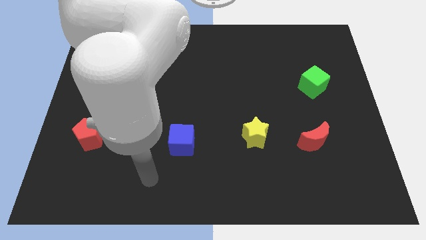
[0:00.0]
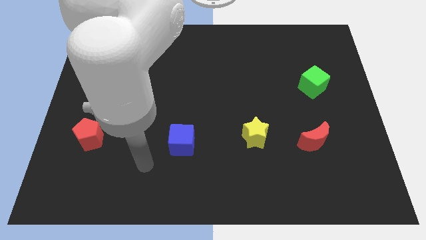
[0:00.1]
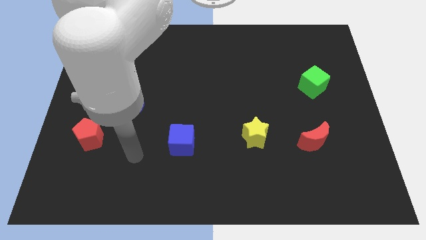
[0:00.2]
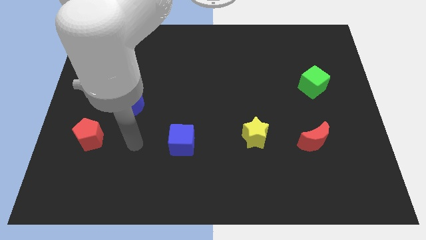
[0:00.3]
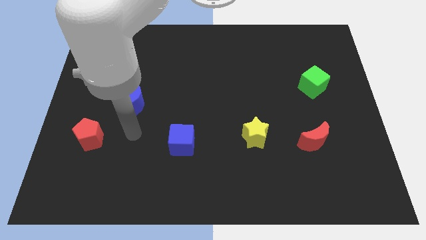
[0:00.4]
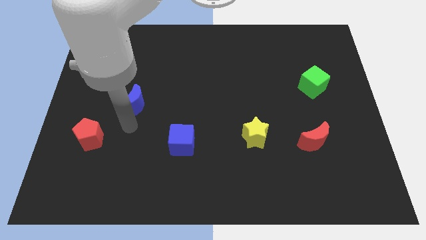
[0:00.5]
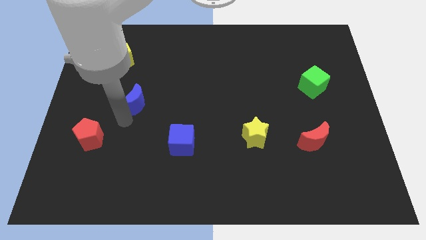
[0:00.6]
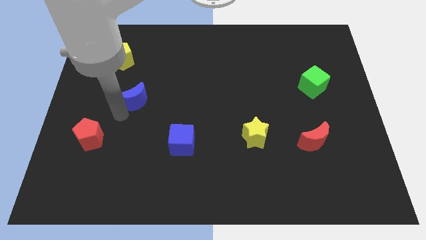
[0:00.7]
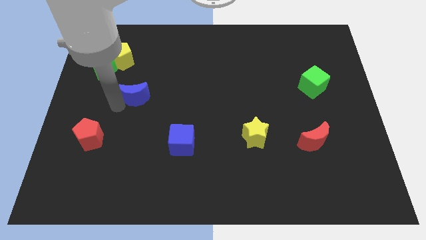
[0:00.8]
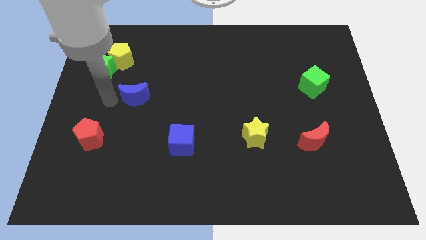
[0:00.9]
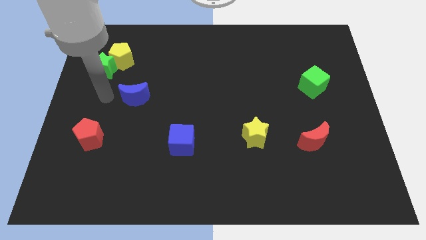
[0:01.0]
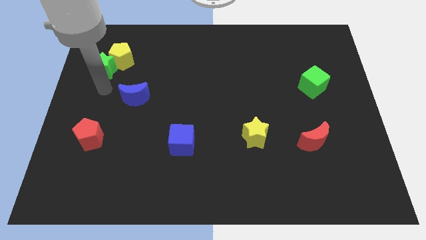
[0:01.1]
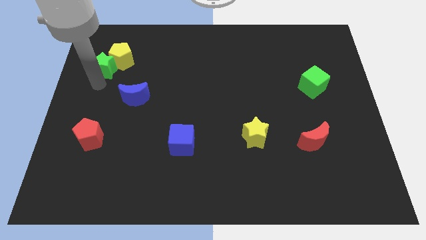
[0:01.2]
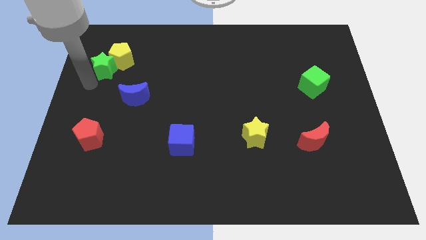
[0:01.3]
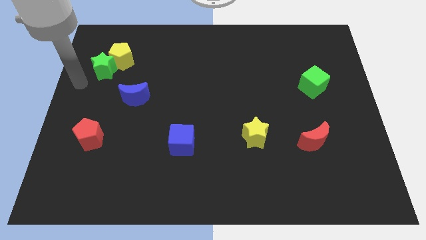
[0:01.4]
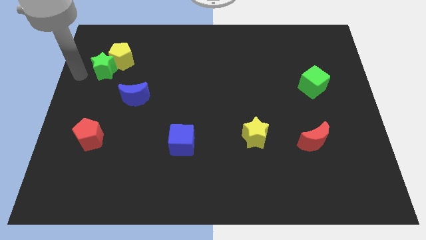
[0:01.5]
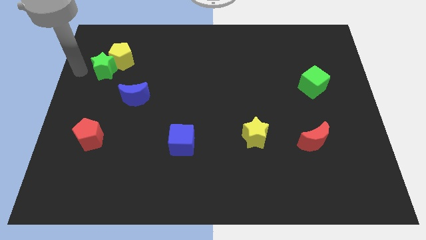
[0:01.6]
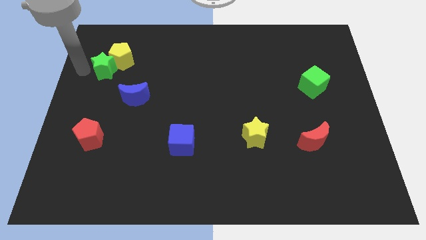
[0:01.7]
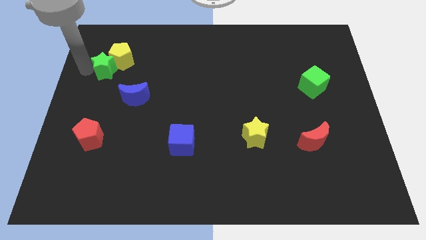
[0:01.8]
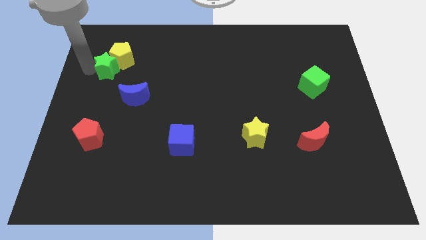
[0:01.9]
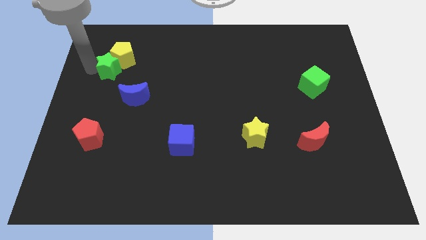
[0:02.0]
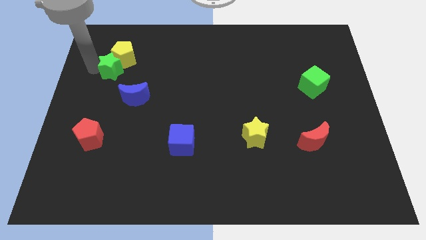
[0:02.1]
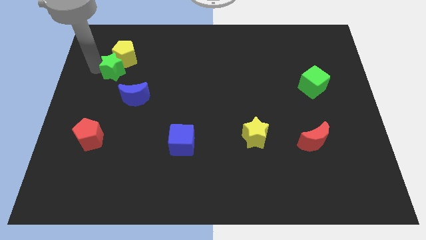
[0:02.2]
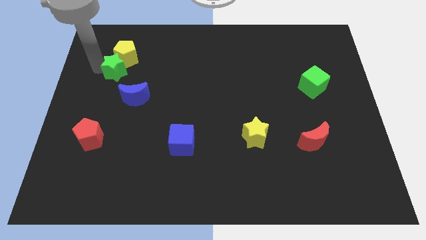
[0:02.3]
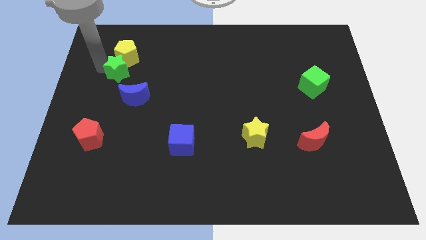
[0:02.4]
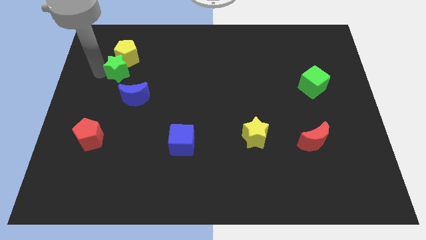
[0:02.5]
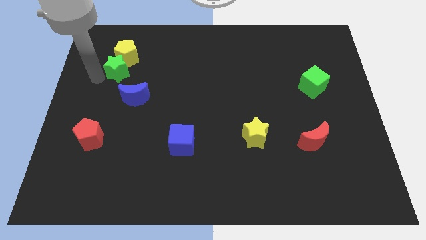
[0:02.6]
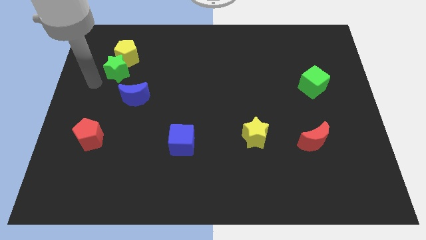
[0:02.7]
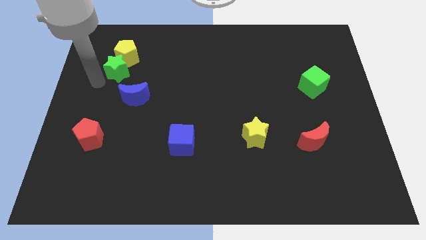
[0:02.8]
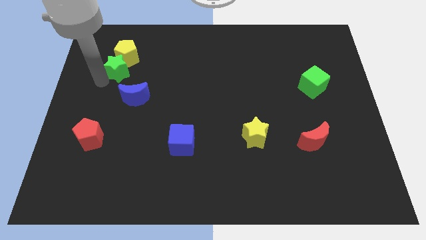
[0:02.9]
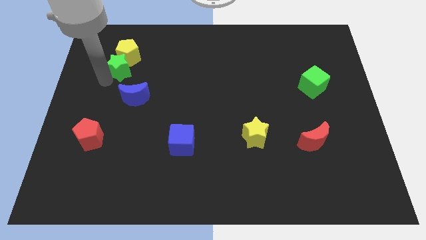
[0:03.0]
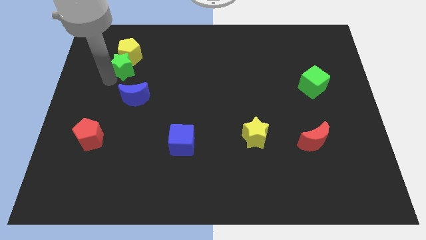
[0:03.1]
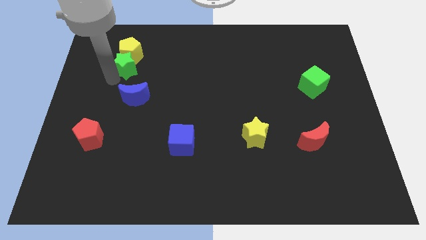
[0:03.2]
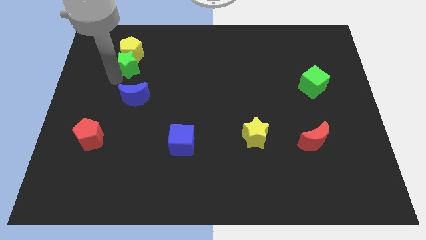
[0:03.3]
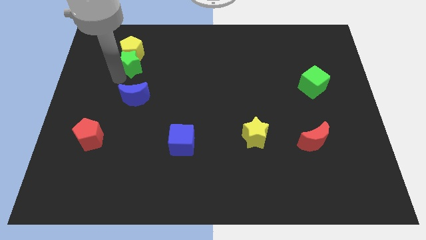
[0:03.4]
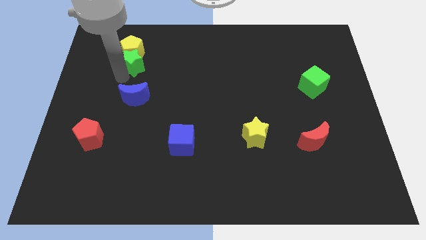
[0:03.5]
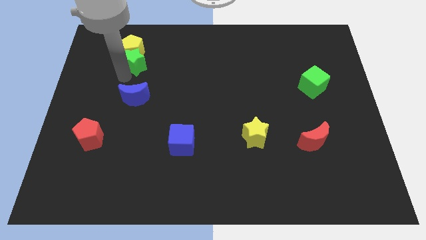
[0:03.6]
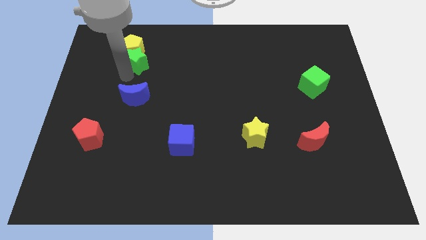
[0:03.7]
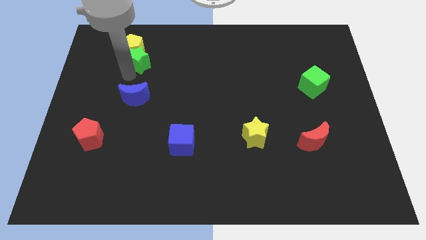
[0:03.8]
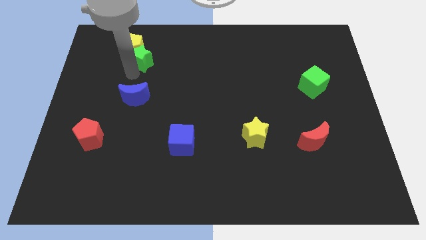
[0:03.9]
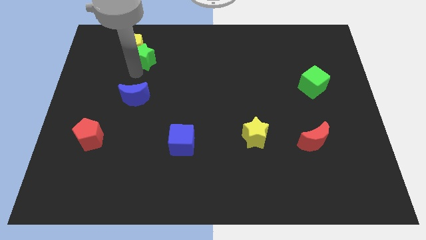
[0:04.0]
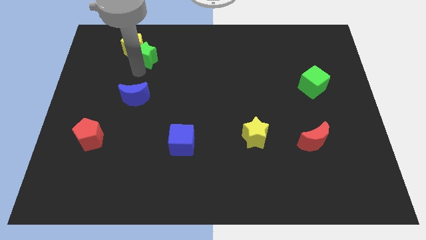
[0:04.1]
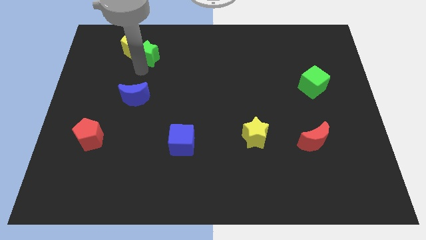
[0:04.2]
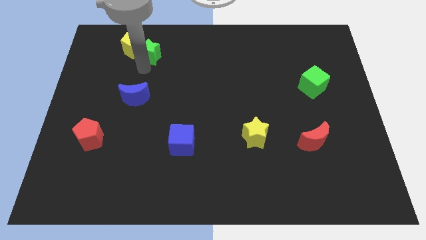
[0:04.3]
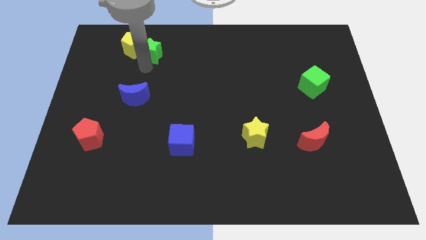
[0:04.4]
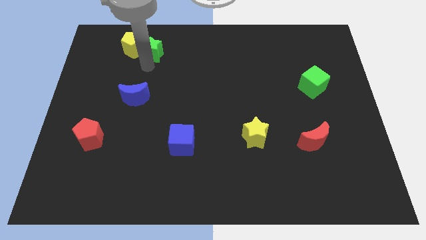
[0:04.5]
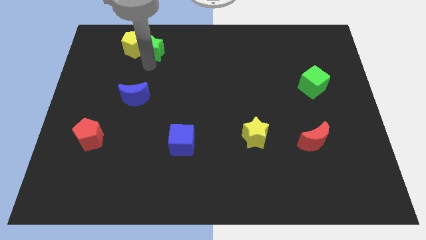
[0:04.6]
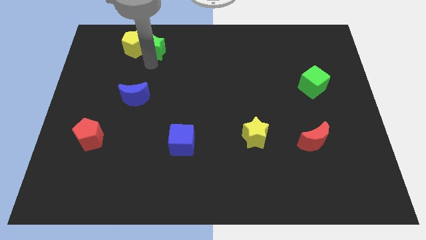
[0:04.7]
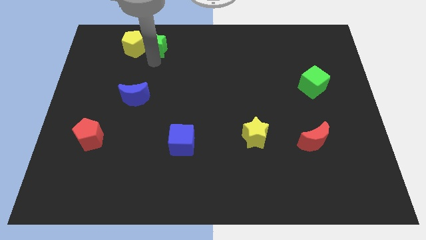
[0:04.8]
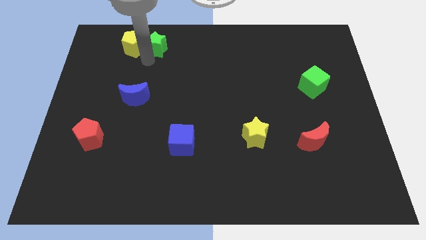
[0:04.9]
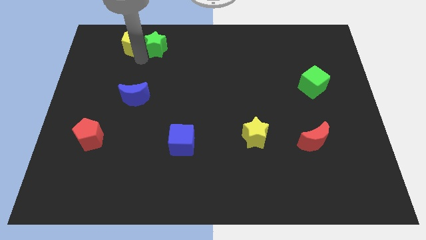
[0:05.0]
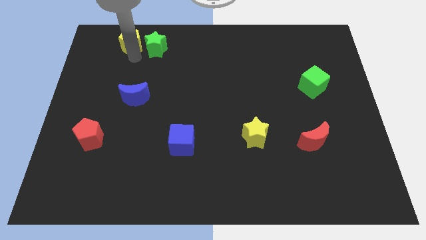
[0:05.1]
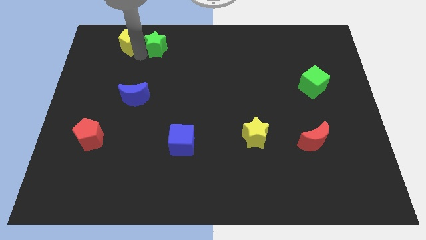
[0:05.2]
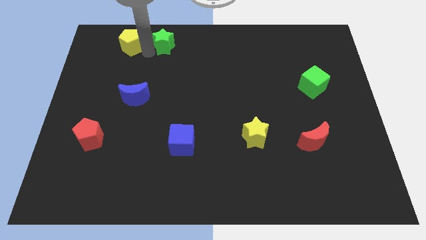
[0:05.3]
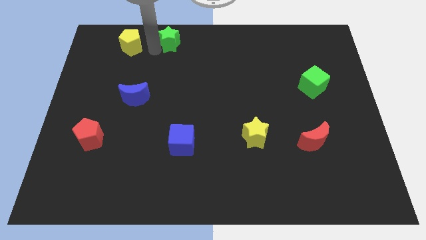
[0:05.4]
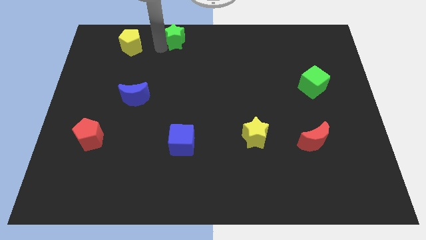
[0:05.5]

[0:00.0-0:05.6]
put the green star to the towards your base

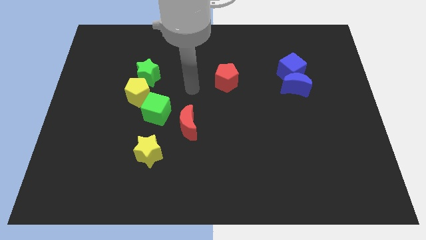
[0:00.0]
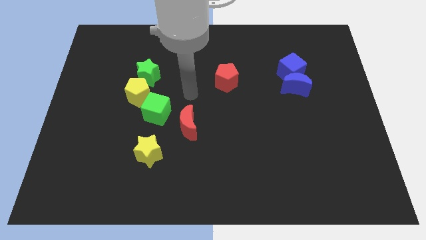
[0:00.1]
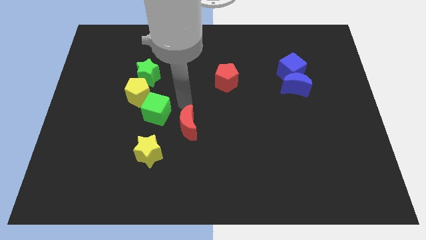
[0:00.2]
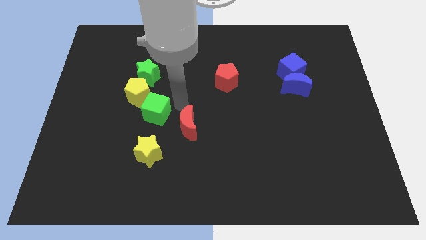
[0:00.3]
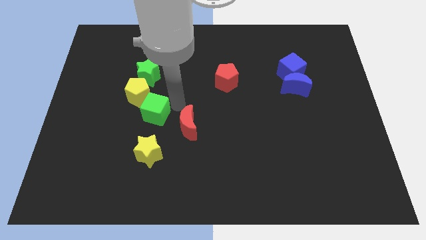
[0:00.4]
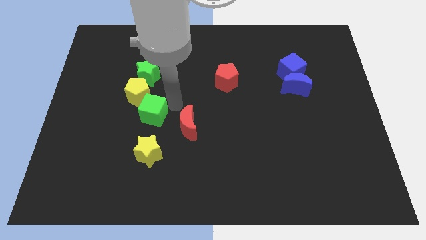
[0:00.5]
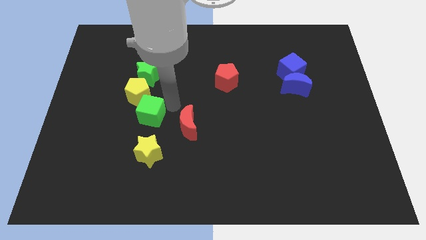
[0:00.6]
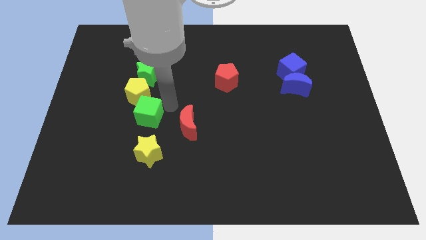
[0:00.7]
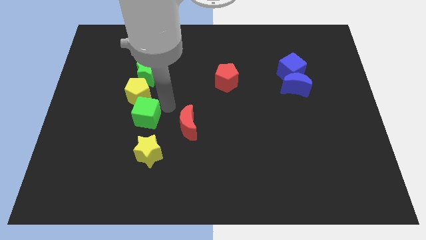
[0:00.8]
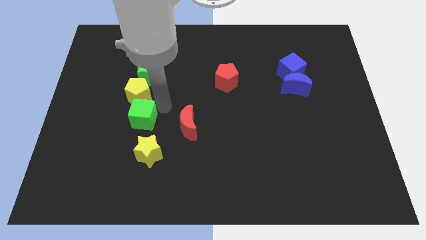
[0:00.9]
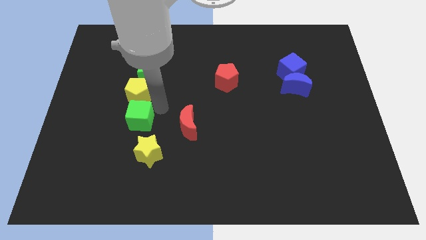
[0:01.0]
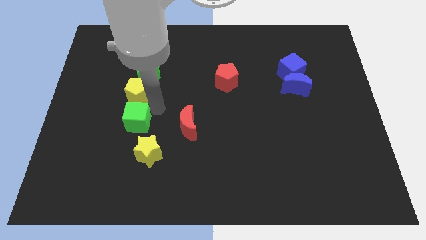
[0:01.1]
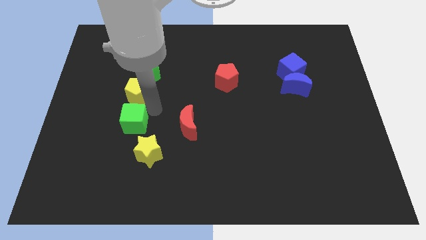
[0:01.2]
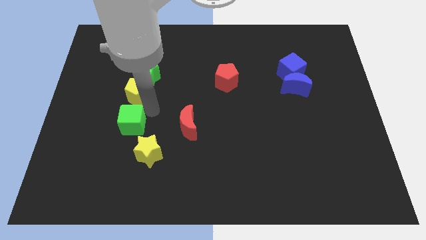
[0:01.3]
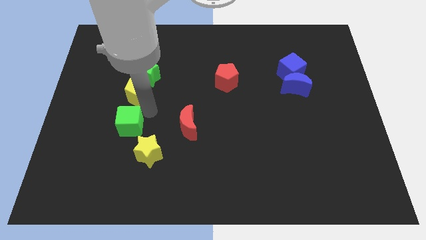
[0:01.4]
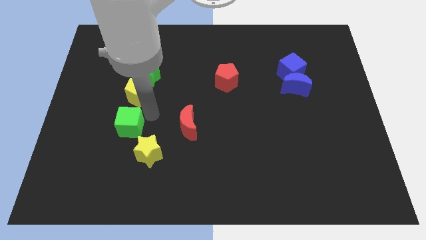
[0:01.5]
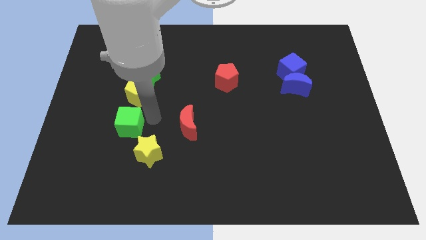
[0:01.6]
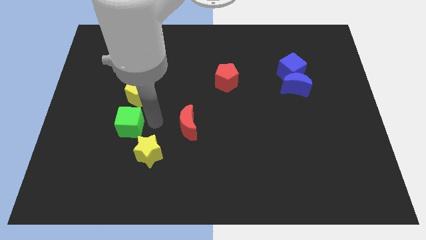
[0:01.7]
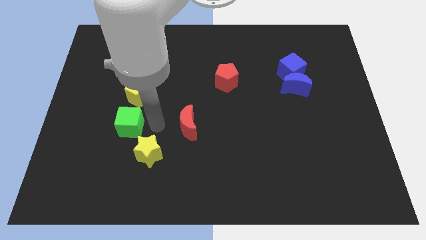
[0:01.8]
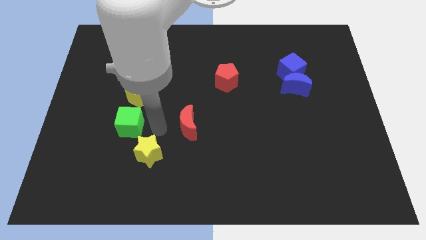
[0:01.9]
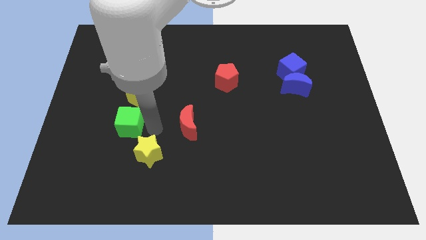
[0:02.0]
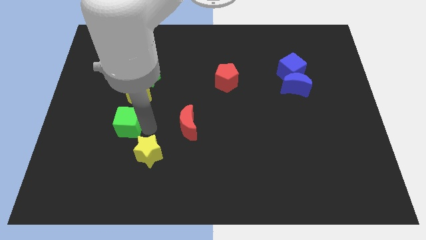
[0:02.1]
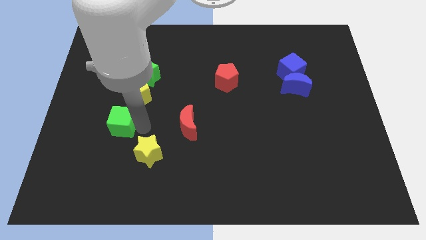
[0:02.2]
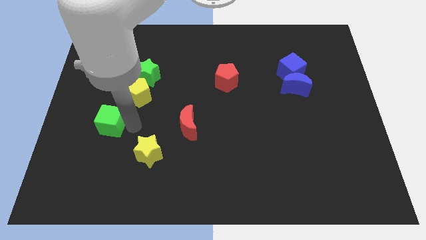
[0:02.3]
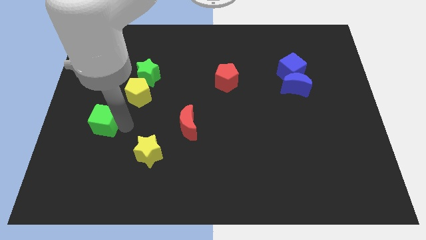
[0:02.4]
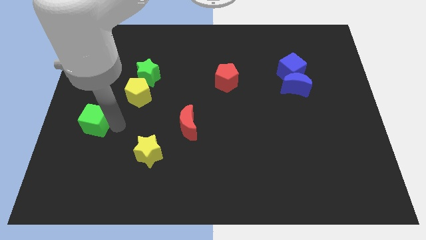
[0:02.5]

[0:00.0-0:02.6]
move the green cube to the left side of the board
